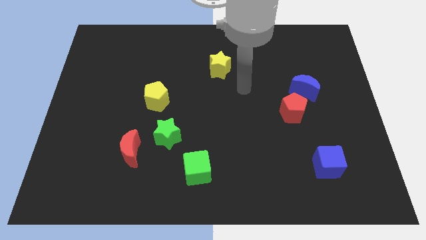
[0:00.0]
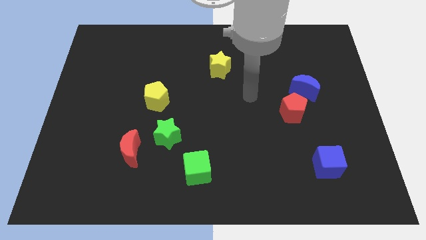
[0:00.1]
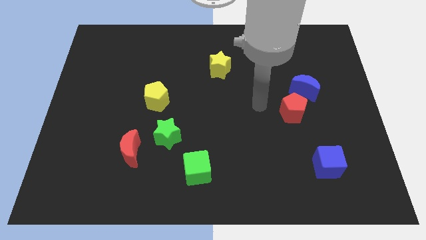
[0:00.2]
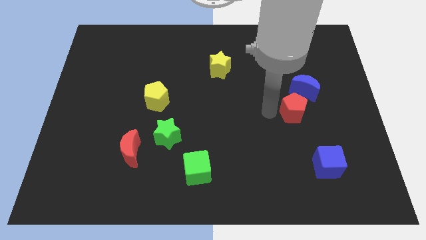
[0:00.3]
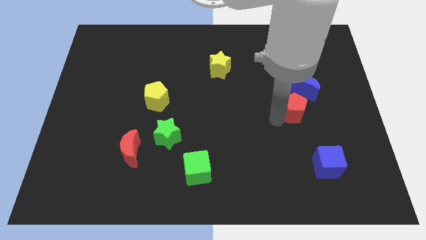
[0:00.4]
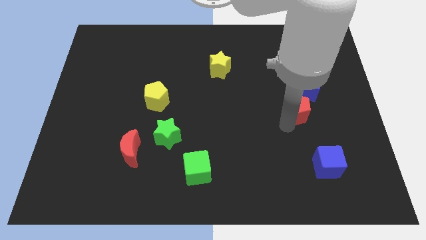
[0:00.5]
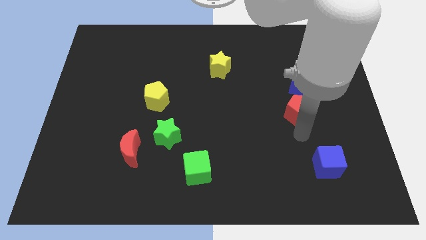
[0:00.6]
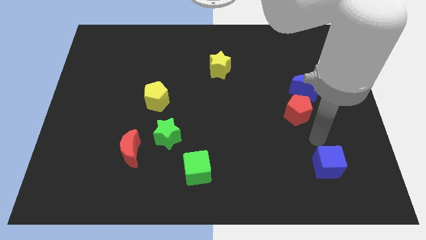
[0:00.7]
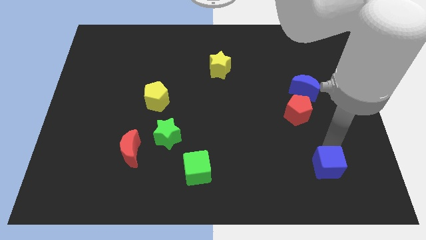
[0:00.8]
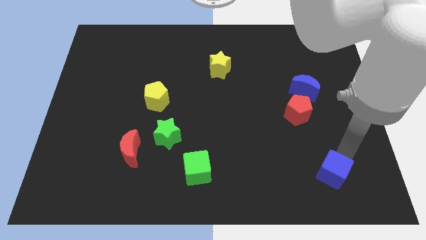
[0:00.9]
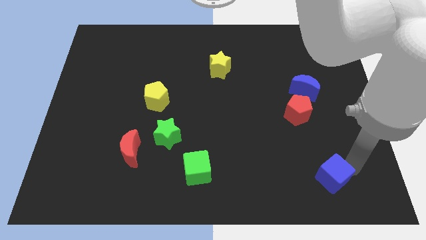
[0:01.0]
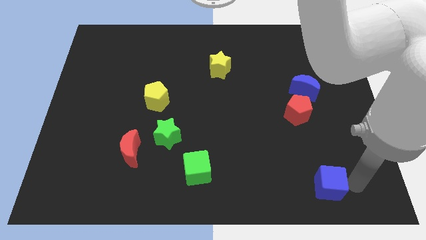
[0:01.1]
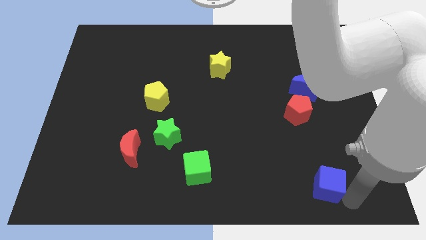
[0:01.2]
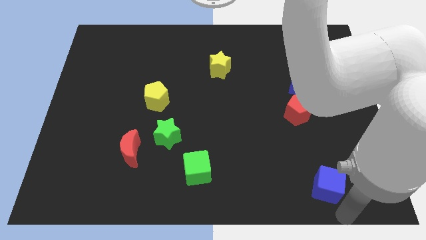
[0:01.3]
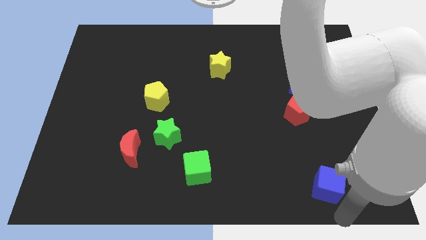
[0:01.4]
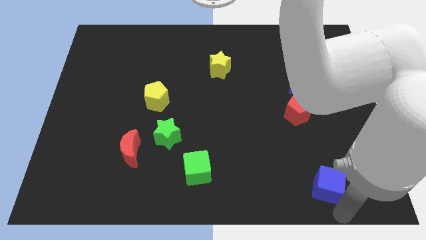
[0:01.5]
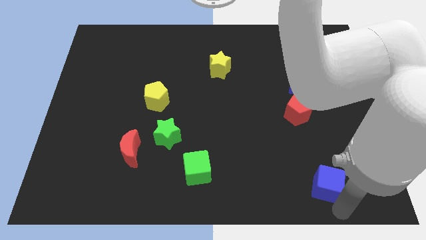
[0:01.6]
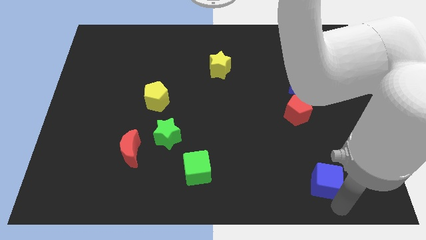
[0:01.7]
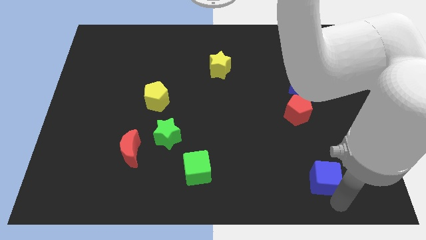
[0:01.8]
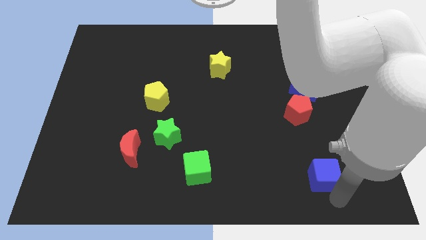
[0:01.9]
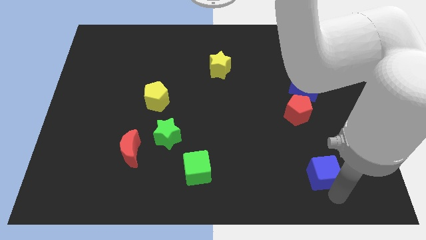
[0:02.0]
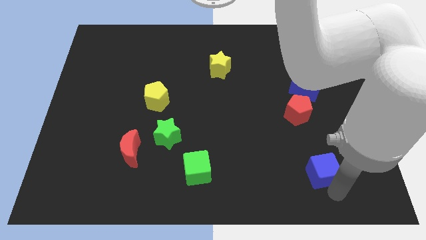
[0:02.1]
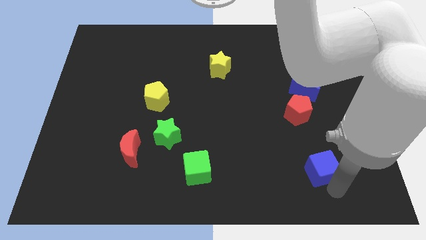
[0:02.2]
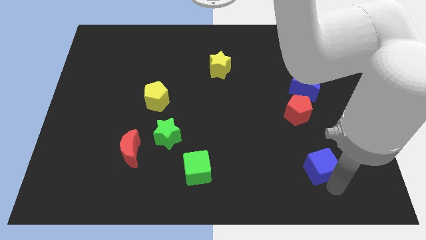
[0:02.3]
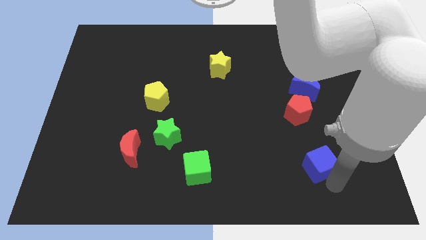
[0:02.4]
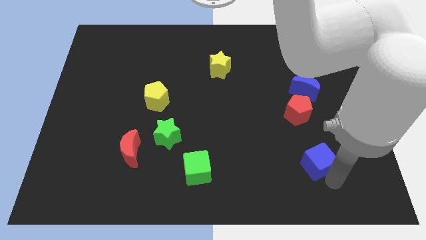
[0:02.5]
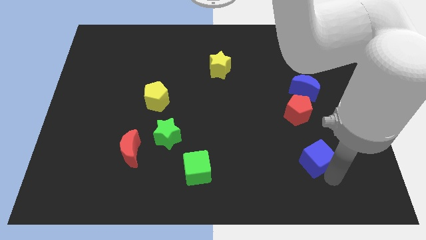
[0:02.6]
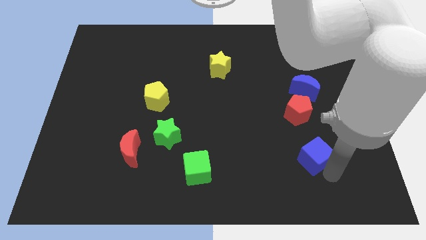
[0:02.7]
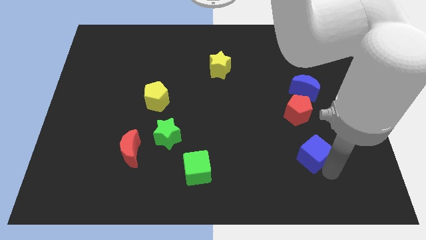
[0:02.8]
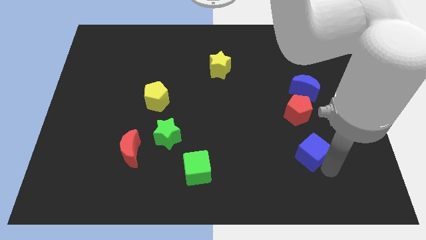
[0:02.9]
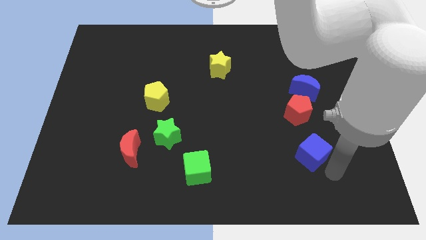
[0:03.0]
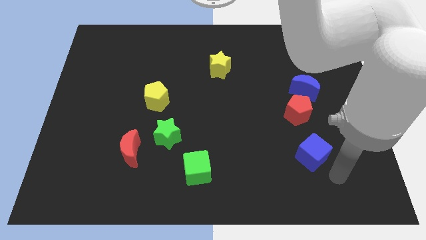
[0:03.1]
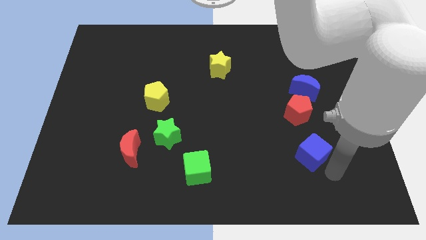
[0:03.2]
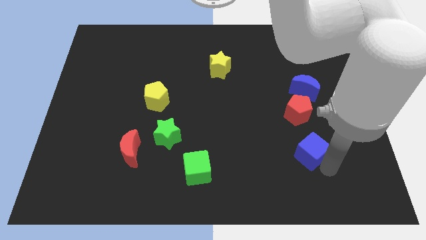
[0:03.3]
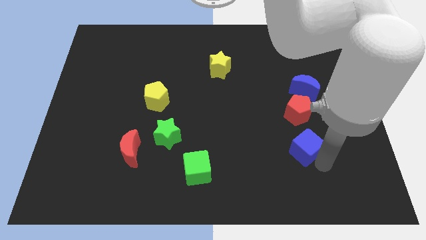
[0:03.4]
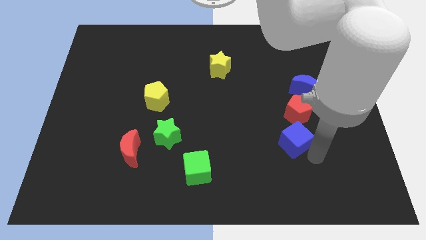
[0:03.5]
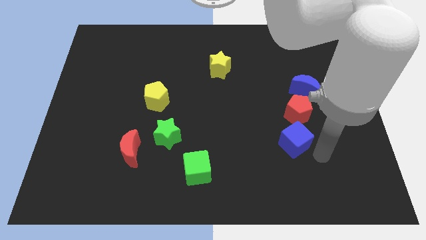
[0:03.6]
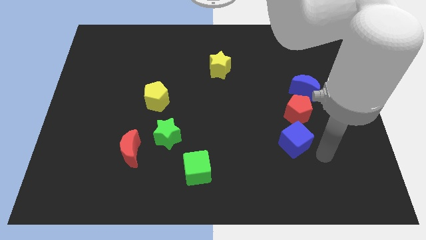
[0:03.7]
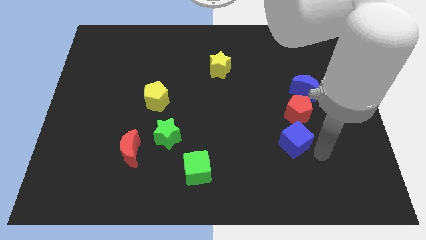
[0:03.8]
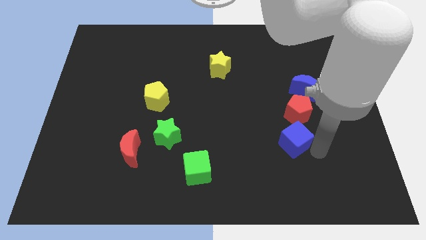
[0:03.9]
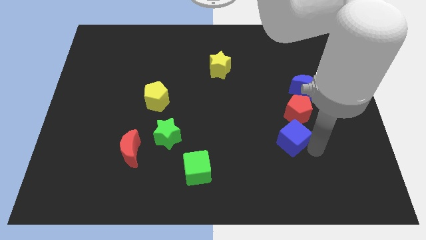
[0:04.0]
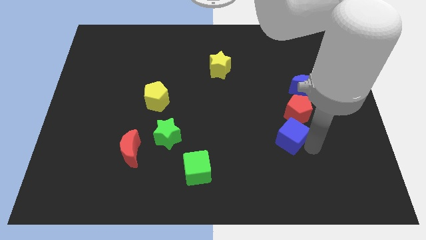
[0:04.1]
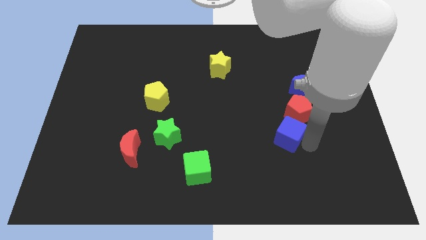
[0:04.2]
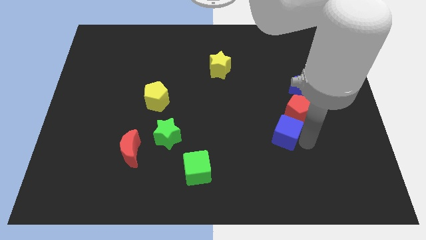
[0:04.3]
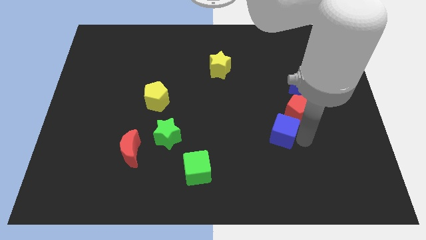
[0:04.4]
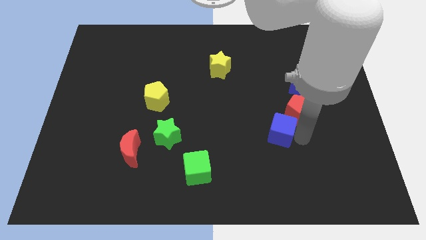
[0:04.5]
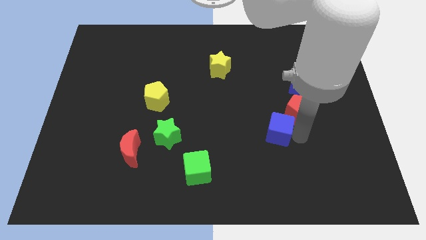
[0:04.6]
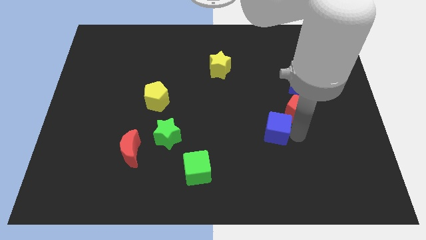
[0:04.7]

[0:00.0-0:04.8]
move the blue cube to the left of the red pentagon

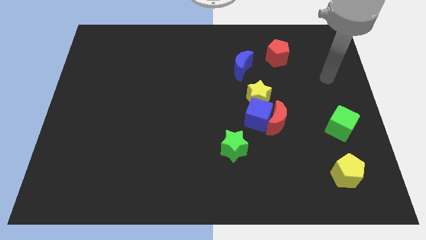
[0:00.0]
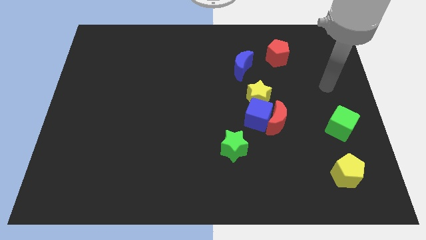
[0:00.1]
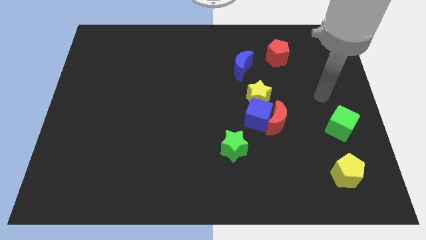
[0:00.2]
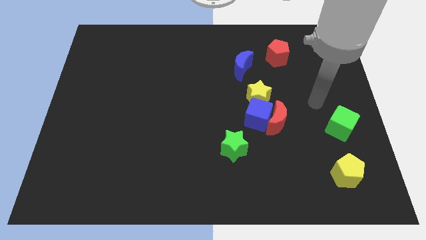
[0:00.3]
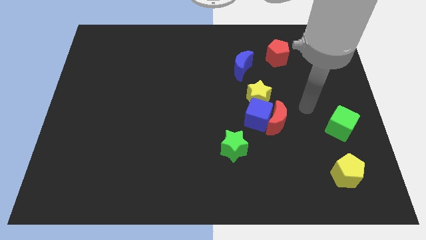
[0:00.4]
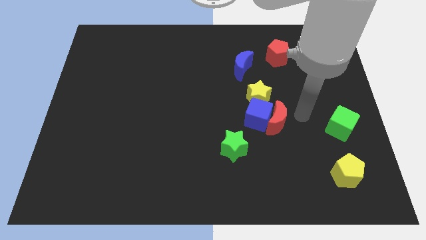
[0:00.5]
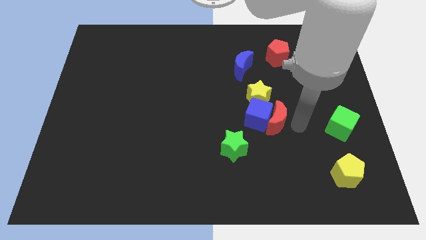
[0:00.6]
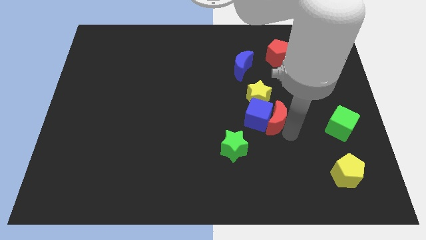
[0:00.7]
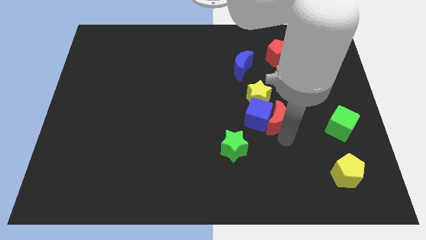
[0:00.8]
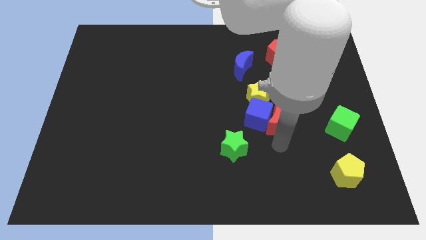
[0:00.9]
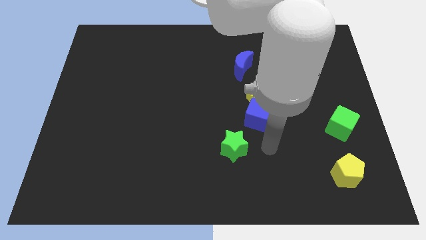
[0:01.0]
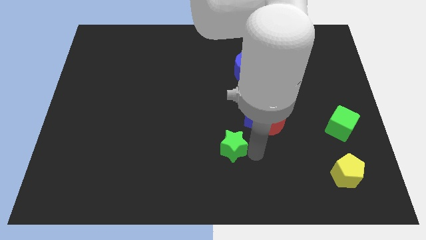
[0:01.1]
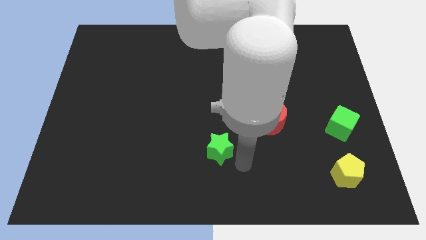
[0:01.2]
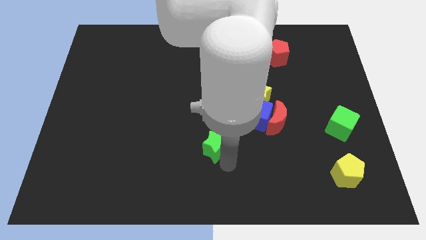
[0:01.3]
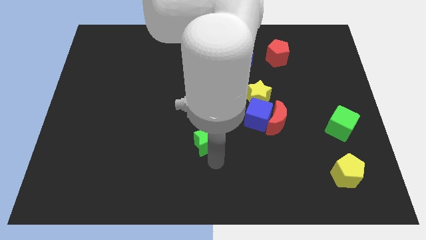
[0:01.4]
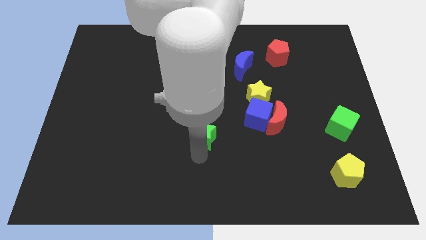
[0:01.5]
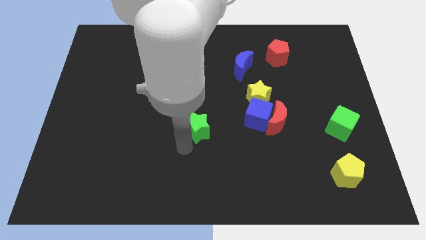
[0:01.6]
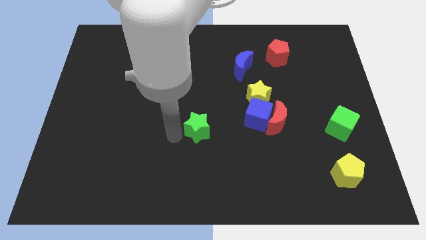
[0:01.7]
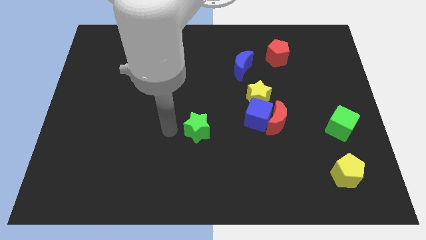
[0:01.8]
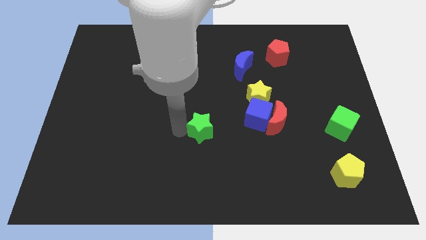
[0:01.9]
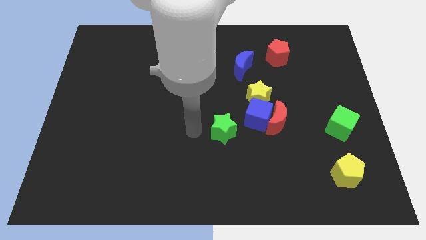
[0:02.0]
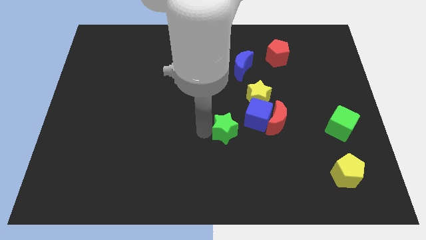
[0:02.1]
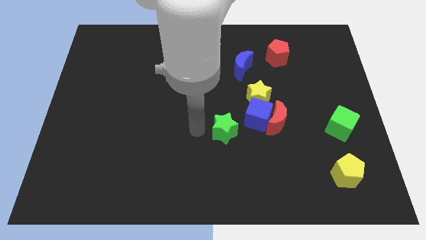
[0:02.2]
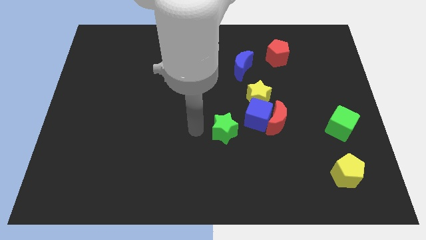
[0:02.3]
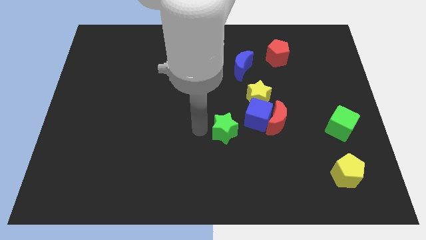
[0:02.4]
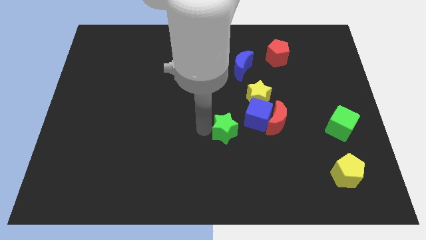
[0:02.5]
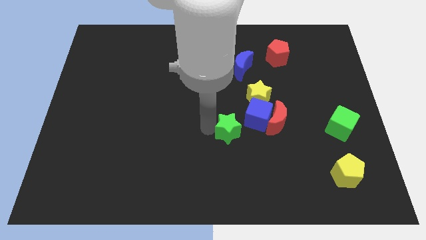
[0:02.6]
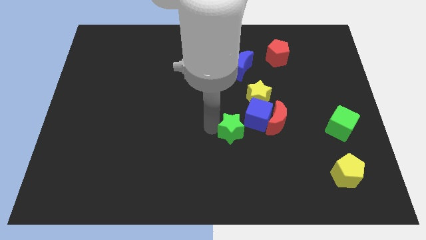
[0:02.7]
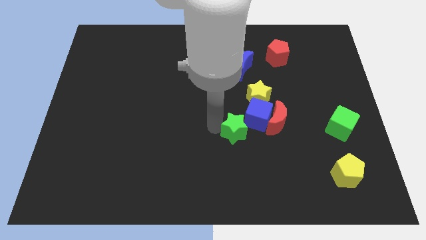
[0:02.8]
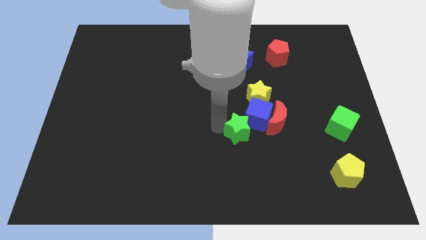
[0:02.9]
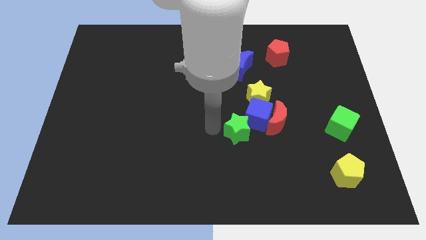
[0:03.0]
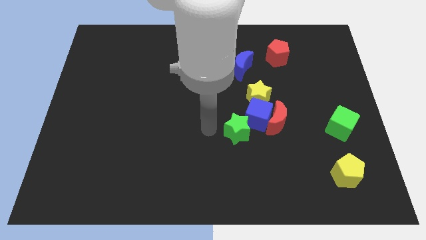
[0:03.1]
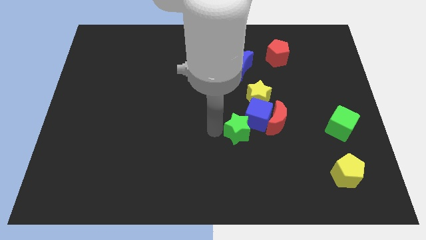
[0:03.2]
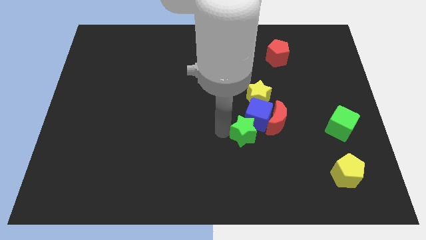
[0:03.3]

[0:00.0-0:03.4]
push the green star to the bottom side of the yellow star
